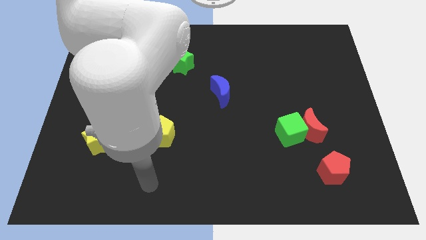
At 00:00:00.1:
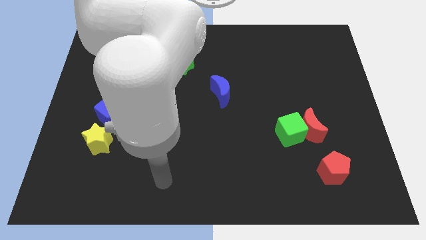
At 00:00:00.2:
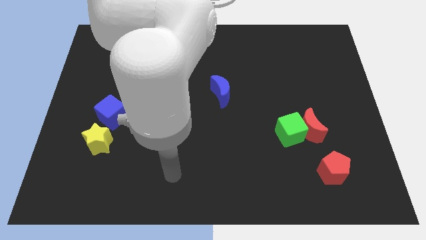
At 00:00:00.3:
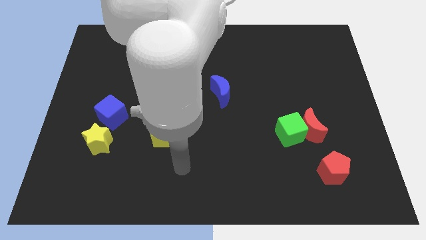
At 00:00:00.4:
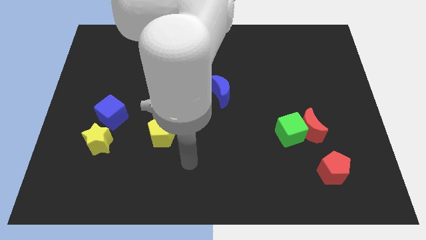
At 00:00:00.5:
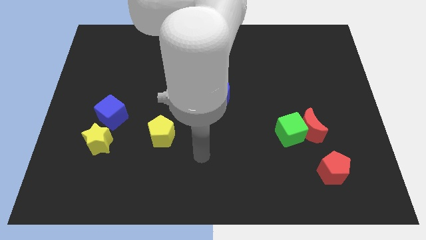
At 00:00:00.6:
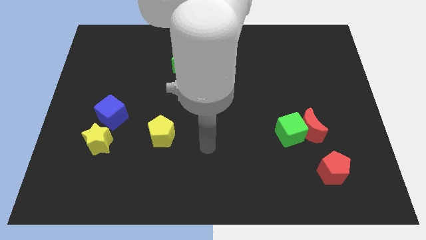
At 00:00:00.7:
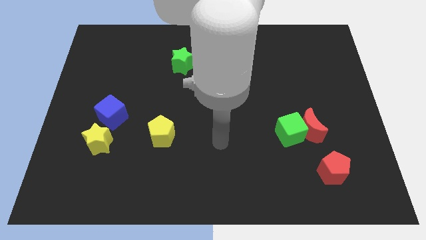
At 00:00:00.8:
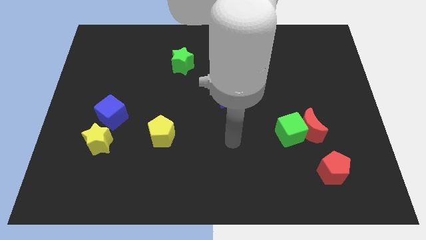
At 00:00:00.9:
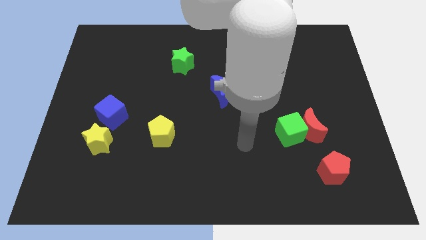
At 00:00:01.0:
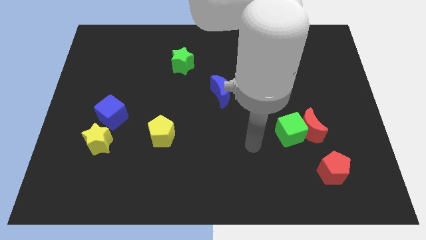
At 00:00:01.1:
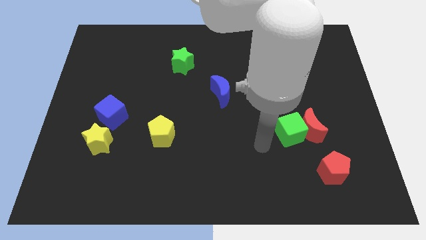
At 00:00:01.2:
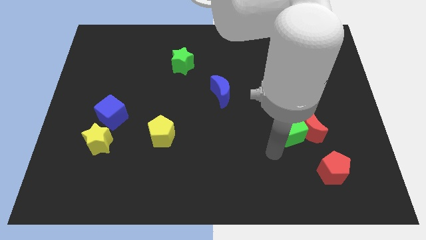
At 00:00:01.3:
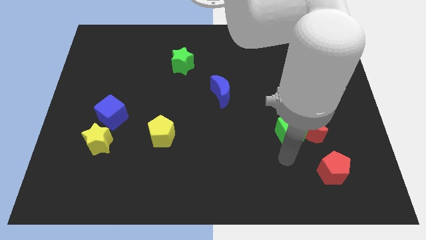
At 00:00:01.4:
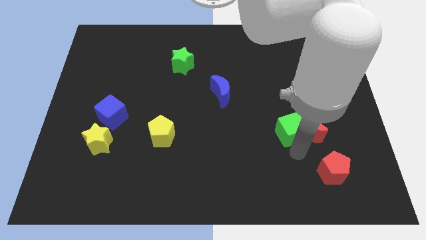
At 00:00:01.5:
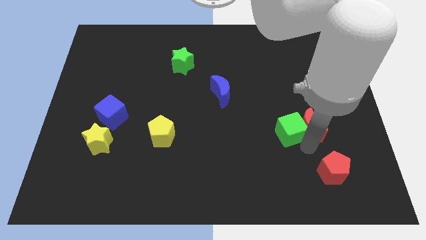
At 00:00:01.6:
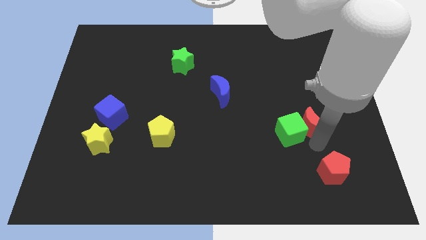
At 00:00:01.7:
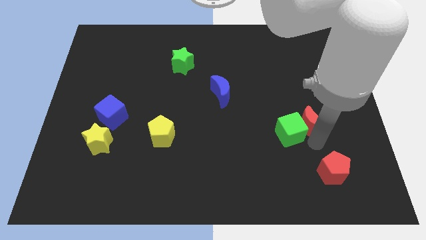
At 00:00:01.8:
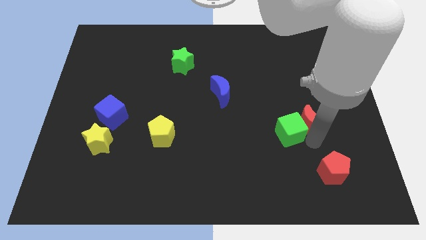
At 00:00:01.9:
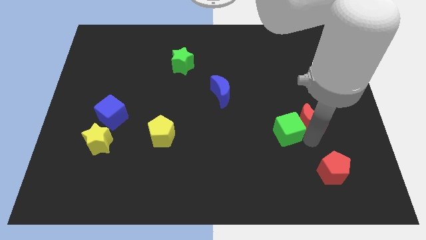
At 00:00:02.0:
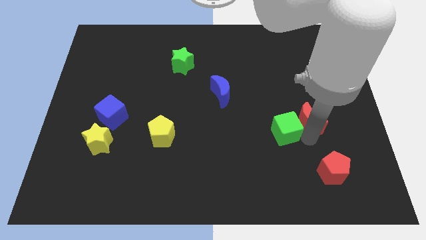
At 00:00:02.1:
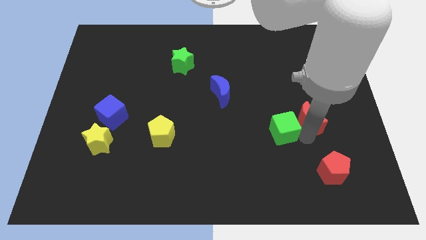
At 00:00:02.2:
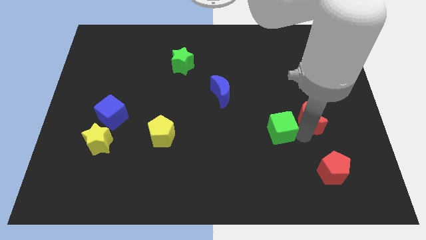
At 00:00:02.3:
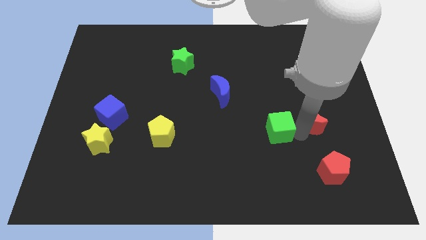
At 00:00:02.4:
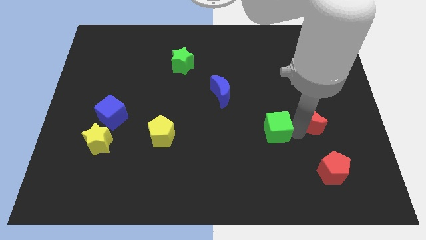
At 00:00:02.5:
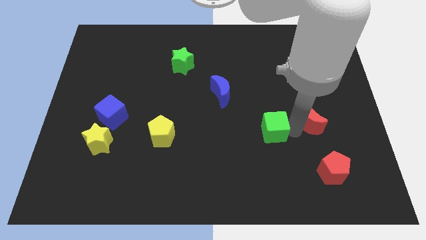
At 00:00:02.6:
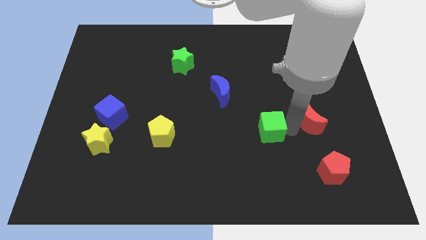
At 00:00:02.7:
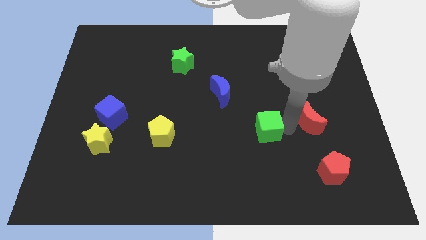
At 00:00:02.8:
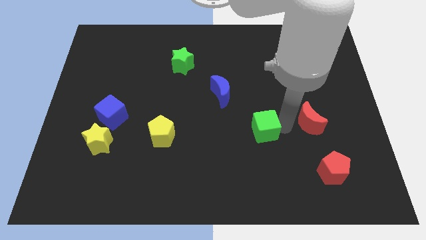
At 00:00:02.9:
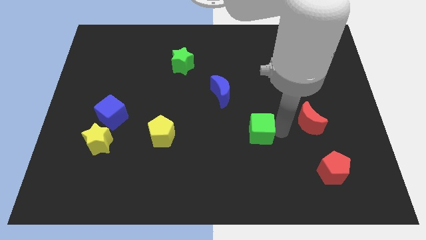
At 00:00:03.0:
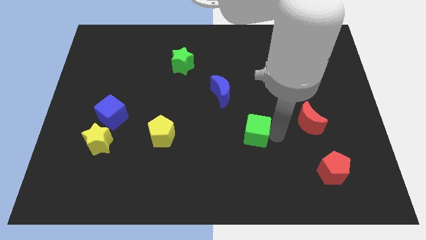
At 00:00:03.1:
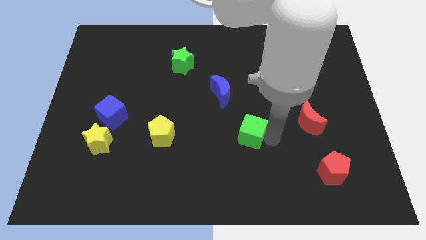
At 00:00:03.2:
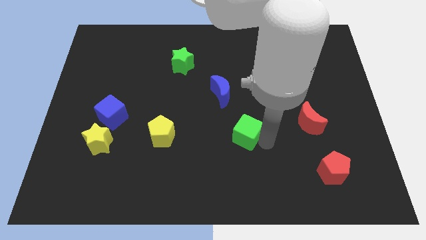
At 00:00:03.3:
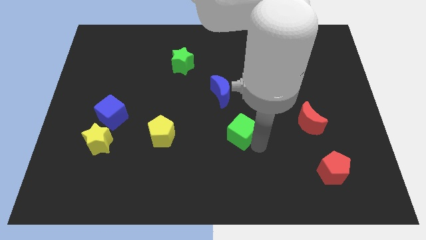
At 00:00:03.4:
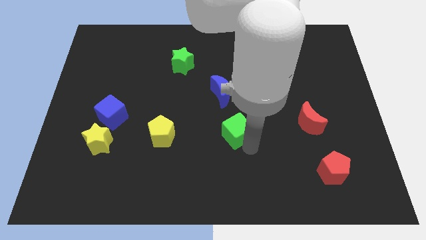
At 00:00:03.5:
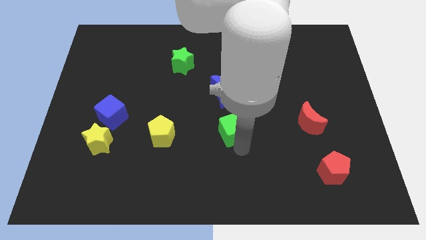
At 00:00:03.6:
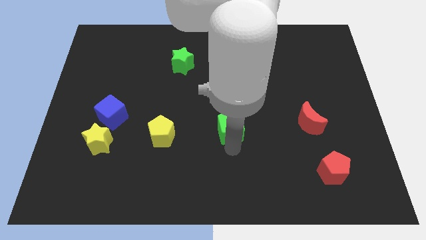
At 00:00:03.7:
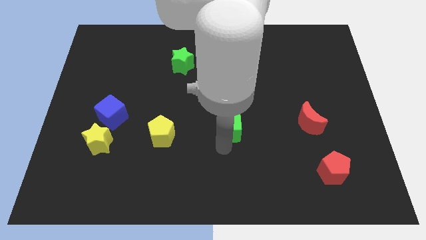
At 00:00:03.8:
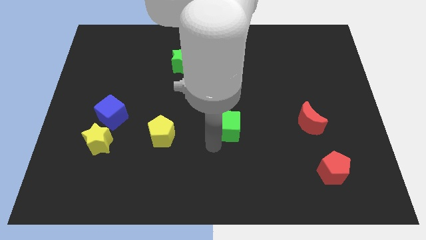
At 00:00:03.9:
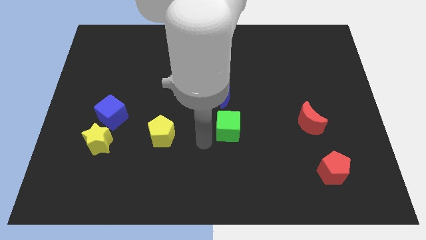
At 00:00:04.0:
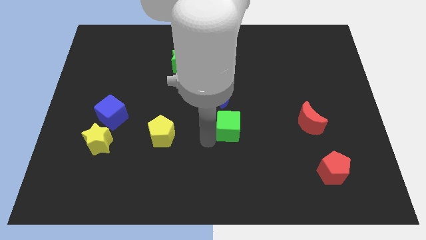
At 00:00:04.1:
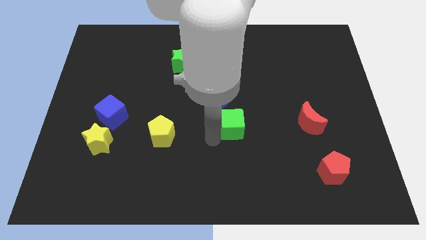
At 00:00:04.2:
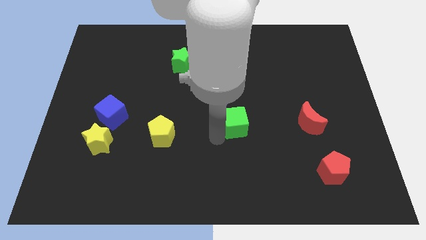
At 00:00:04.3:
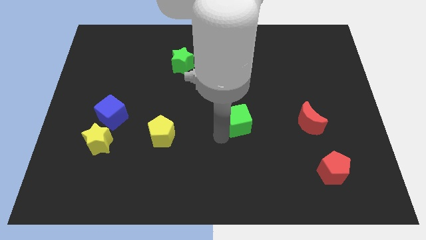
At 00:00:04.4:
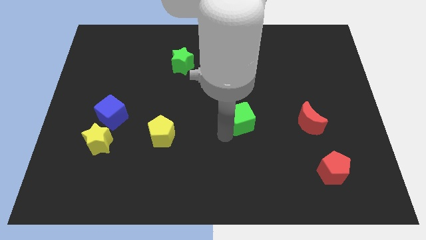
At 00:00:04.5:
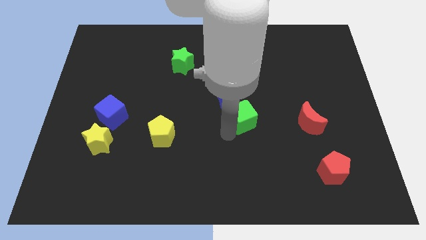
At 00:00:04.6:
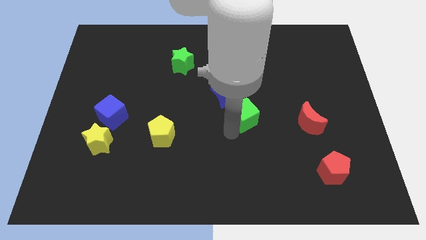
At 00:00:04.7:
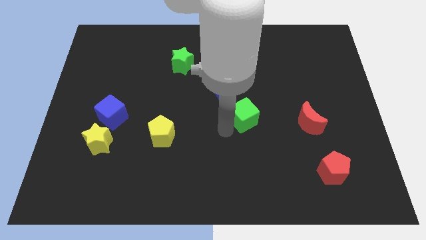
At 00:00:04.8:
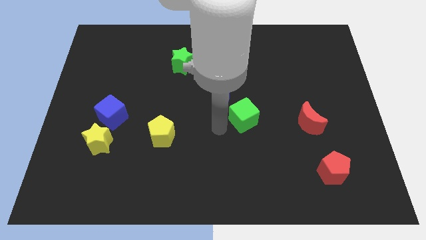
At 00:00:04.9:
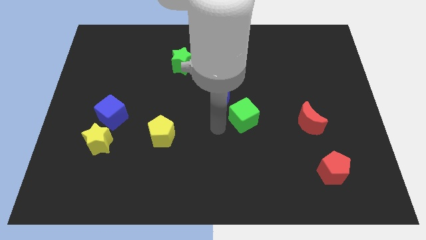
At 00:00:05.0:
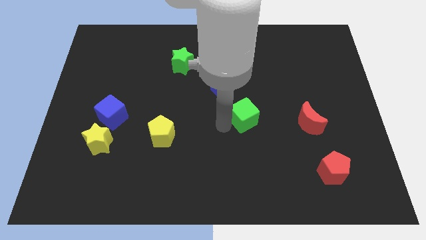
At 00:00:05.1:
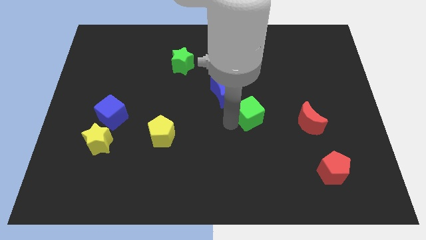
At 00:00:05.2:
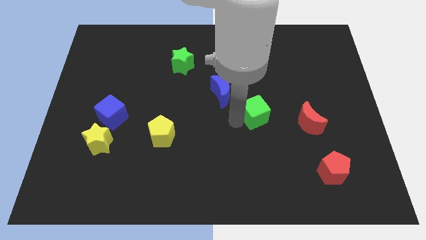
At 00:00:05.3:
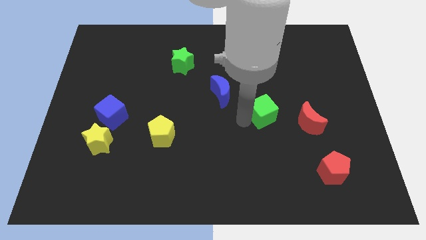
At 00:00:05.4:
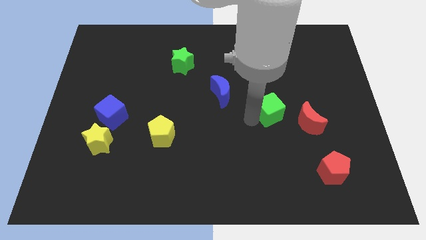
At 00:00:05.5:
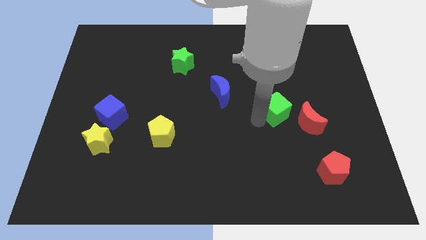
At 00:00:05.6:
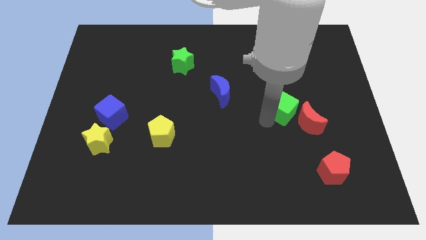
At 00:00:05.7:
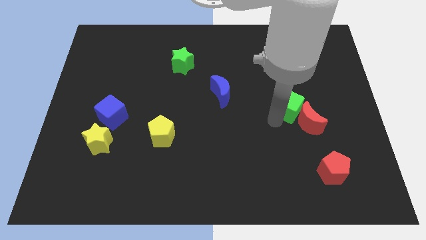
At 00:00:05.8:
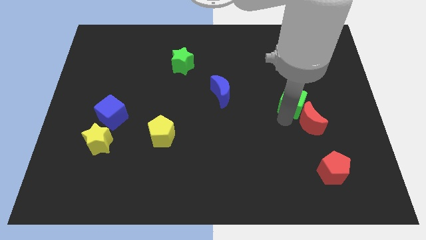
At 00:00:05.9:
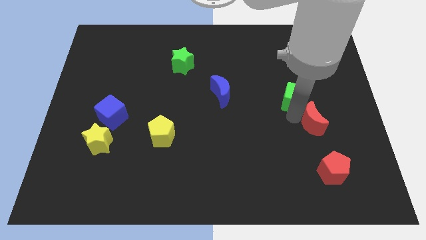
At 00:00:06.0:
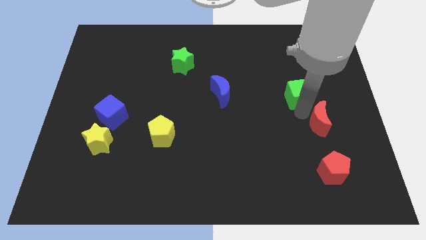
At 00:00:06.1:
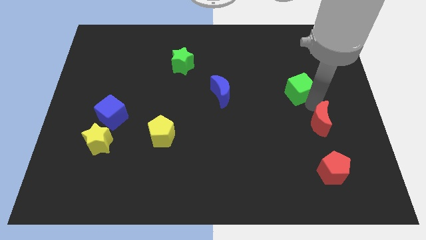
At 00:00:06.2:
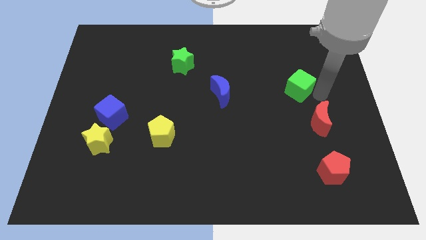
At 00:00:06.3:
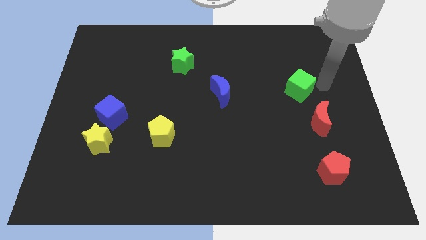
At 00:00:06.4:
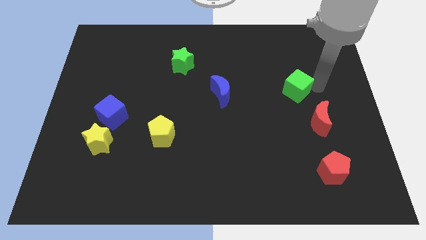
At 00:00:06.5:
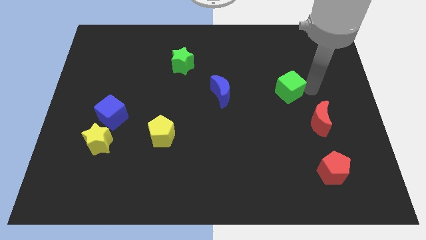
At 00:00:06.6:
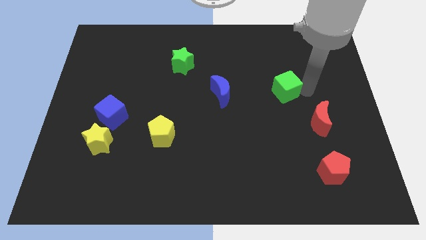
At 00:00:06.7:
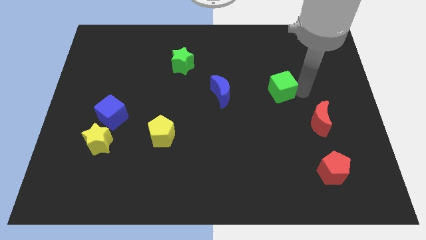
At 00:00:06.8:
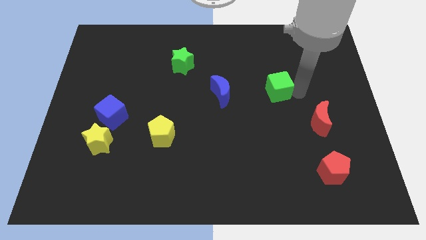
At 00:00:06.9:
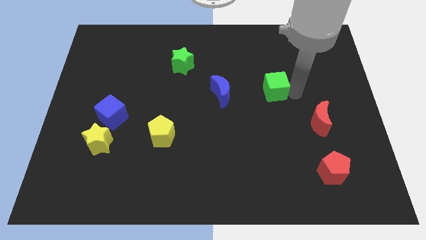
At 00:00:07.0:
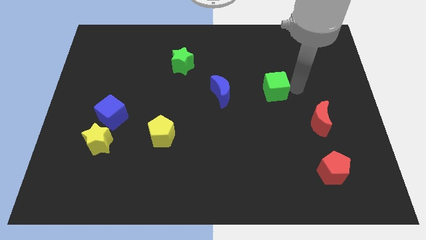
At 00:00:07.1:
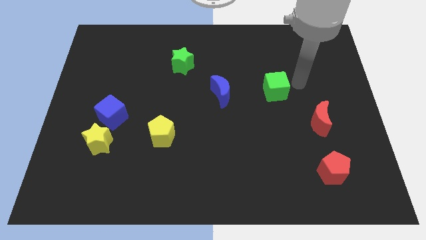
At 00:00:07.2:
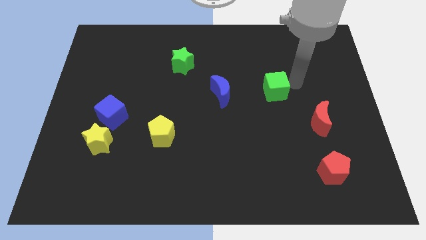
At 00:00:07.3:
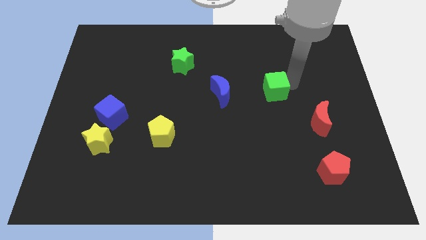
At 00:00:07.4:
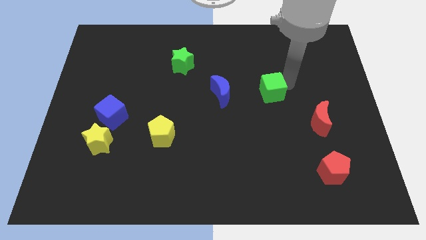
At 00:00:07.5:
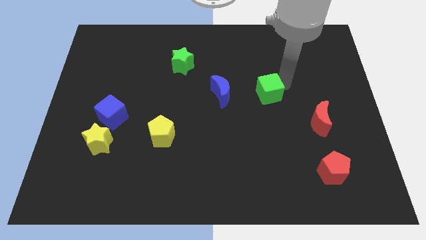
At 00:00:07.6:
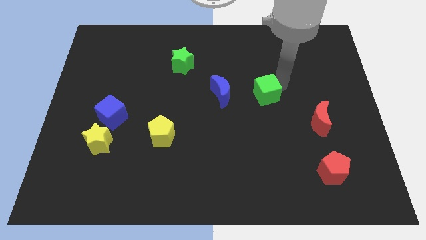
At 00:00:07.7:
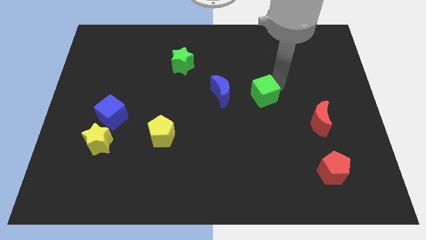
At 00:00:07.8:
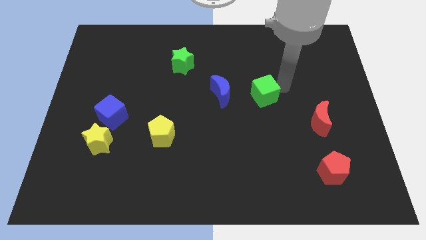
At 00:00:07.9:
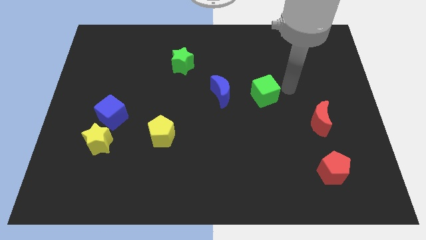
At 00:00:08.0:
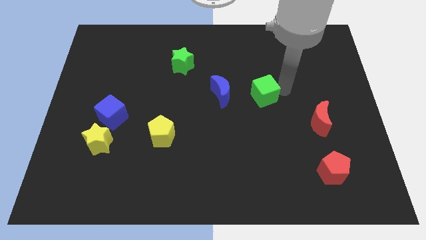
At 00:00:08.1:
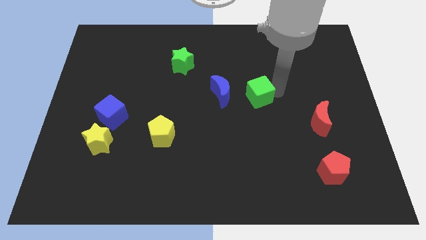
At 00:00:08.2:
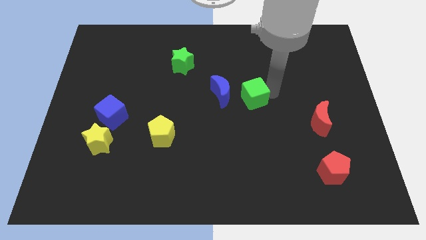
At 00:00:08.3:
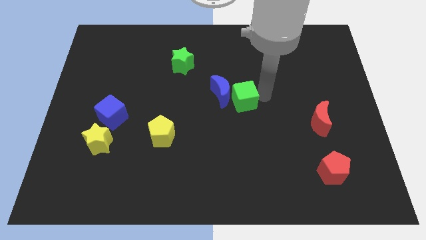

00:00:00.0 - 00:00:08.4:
put the green cube next to the blue moon
